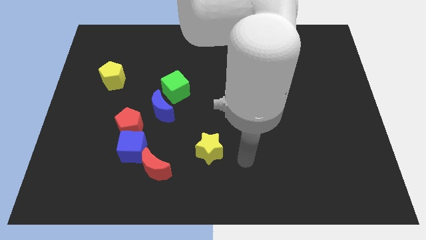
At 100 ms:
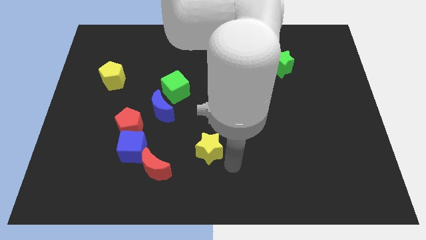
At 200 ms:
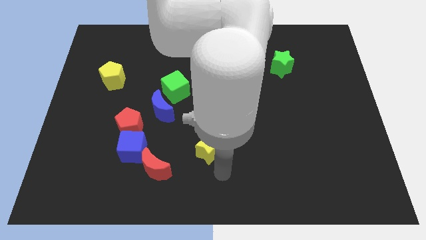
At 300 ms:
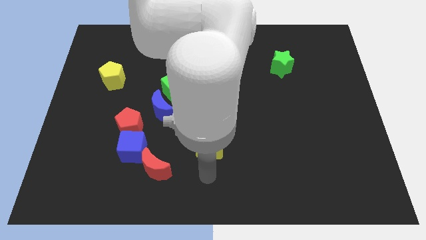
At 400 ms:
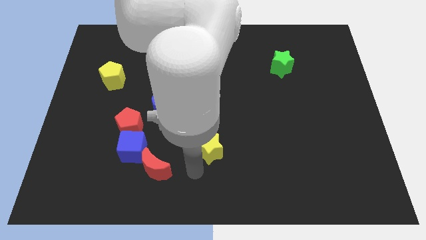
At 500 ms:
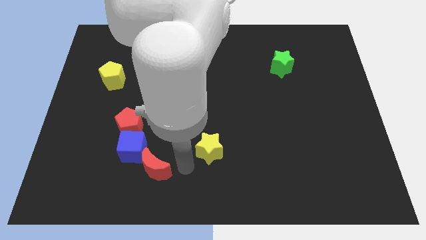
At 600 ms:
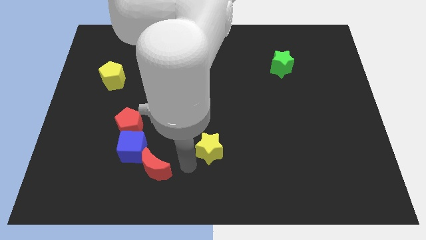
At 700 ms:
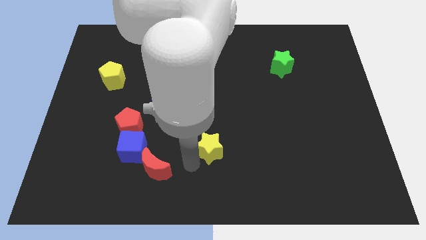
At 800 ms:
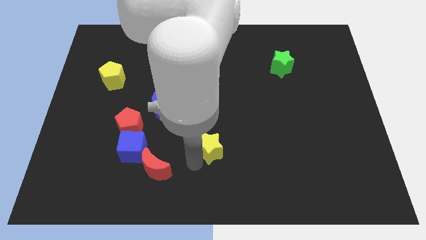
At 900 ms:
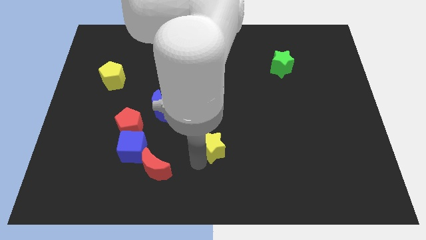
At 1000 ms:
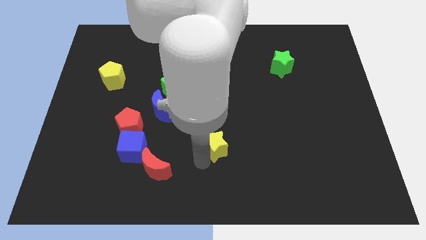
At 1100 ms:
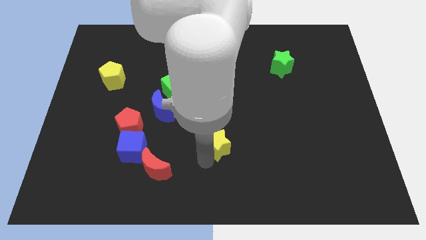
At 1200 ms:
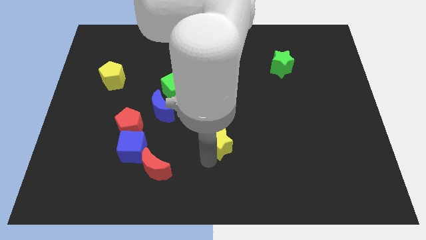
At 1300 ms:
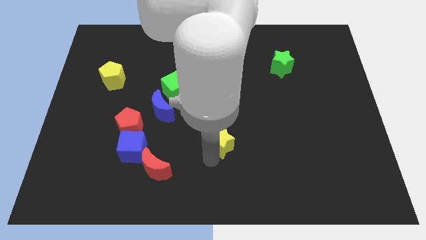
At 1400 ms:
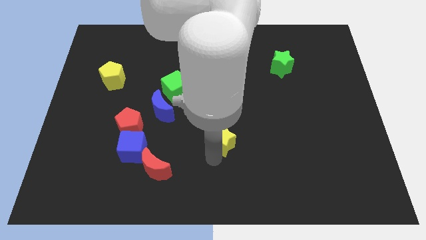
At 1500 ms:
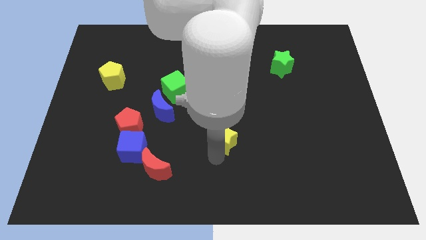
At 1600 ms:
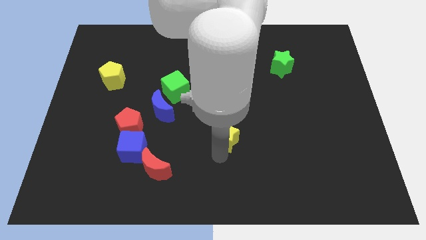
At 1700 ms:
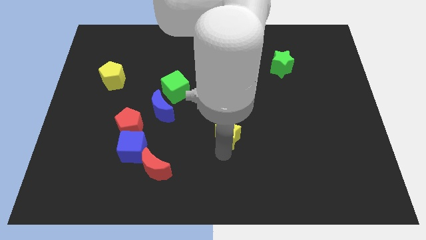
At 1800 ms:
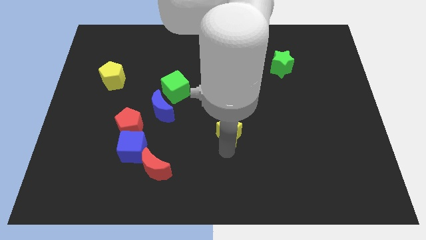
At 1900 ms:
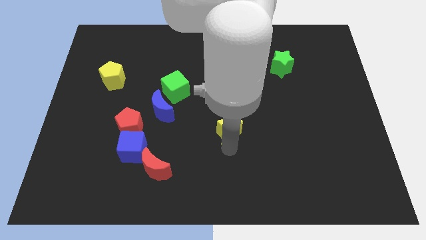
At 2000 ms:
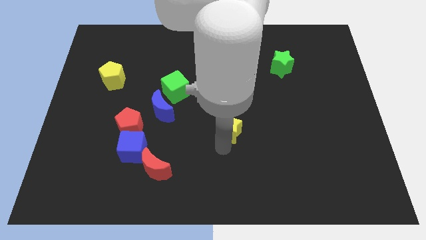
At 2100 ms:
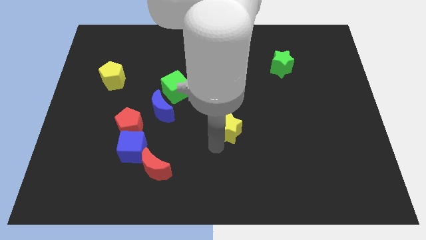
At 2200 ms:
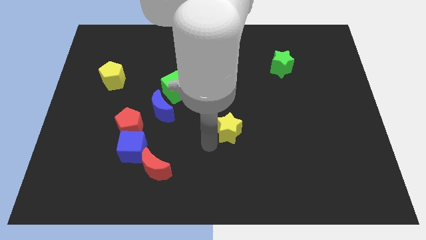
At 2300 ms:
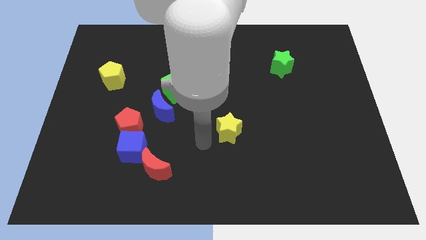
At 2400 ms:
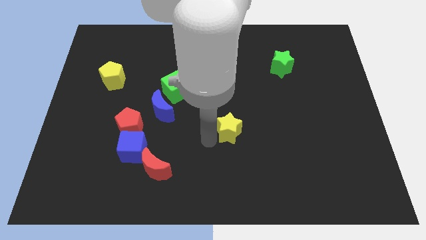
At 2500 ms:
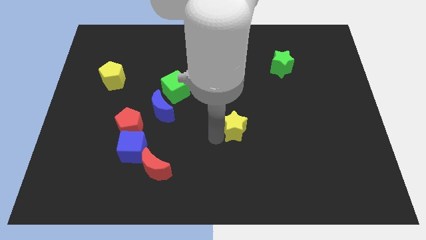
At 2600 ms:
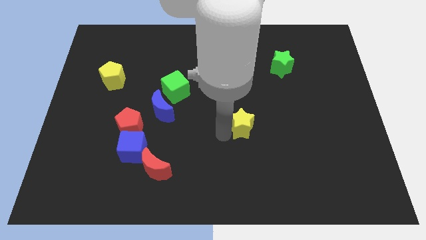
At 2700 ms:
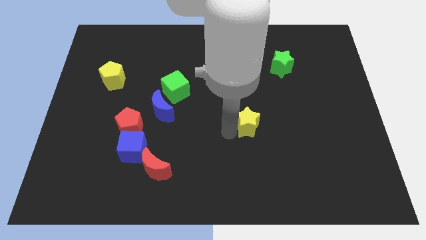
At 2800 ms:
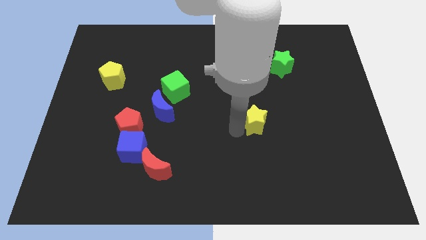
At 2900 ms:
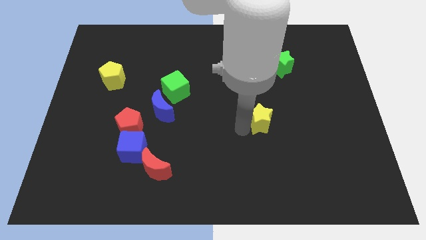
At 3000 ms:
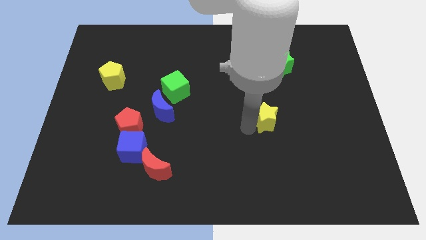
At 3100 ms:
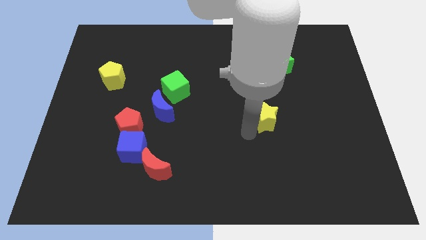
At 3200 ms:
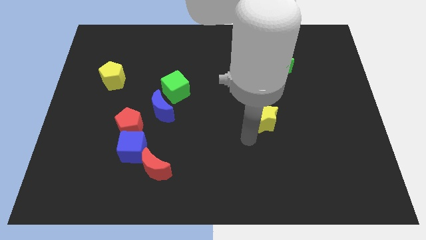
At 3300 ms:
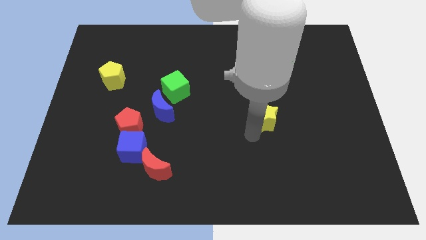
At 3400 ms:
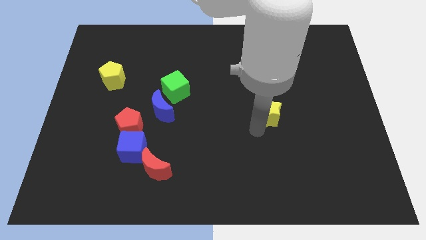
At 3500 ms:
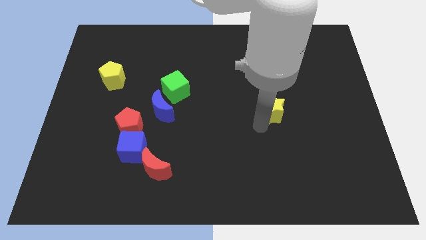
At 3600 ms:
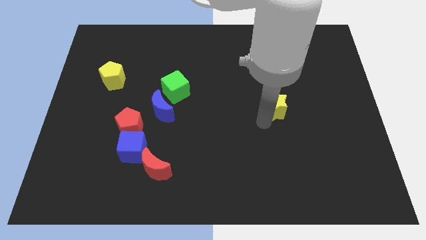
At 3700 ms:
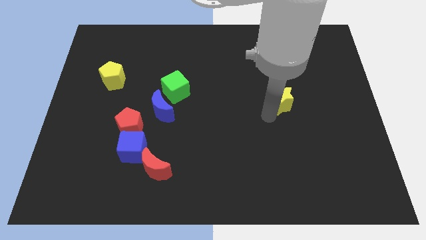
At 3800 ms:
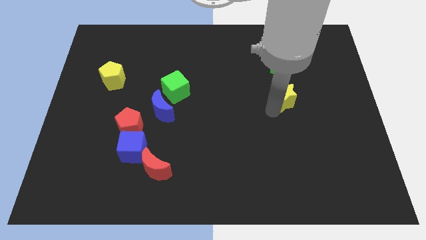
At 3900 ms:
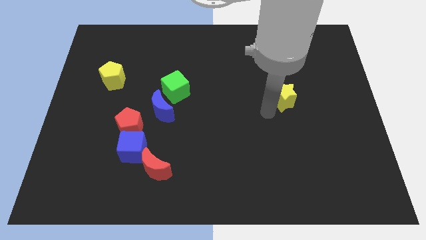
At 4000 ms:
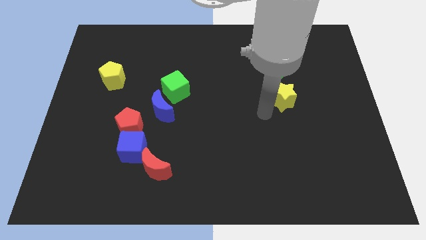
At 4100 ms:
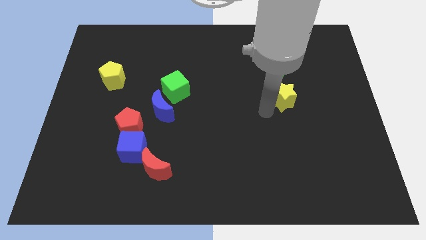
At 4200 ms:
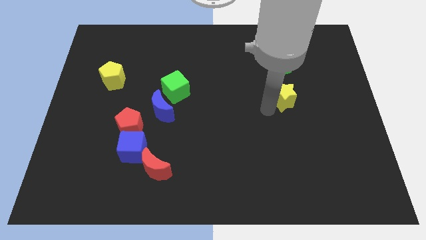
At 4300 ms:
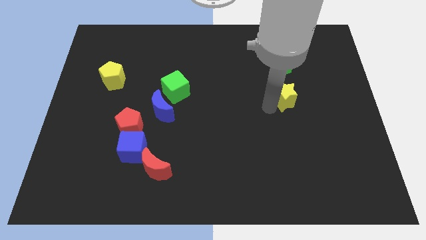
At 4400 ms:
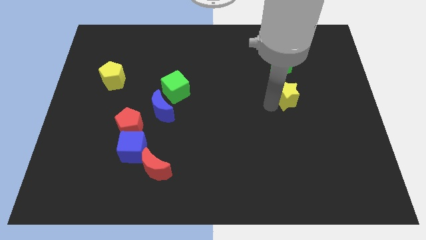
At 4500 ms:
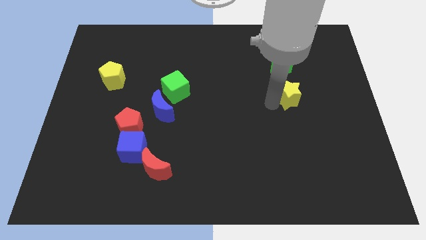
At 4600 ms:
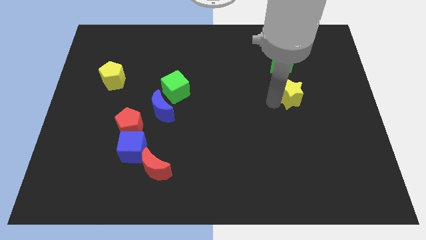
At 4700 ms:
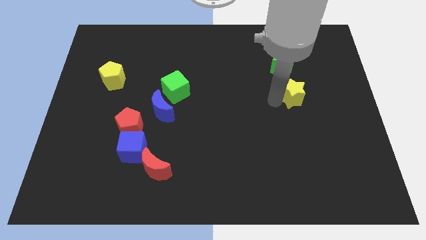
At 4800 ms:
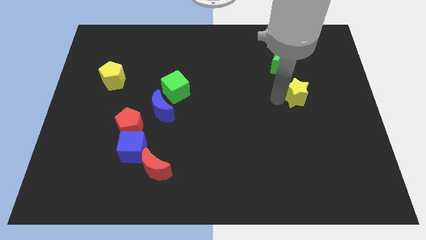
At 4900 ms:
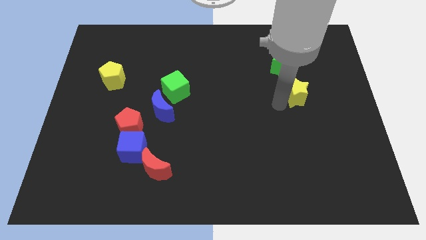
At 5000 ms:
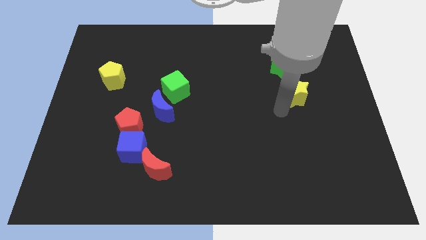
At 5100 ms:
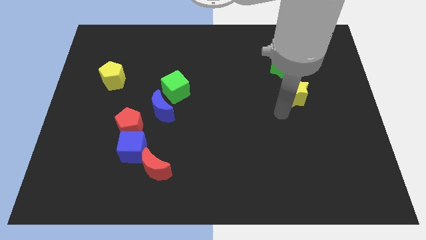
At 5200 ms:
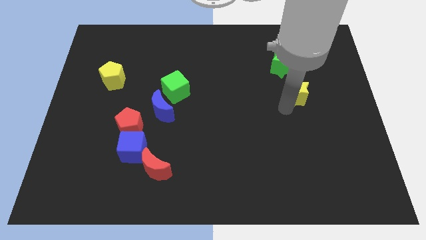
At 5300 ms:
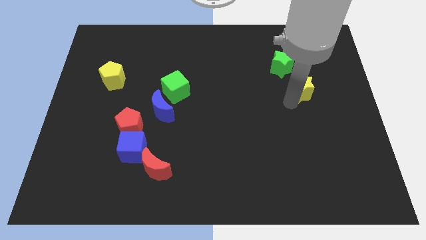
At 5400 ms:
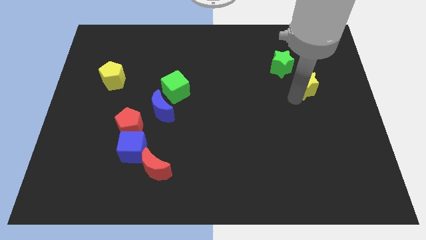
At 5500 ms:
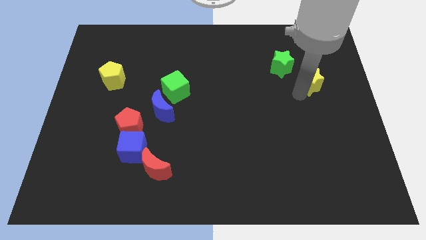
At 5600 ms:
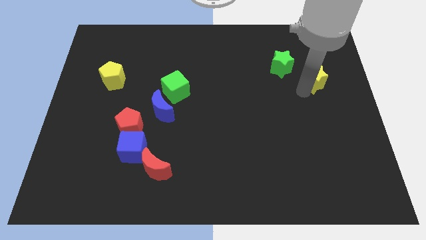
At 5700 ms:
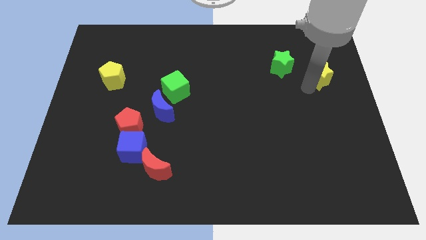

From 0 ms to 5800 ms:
put the yellow star to the right of the green star

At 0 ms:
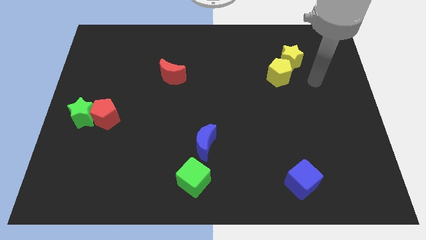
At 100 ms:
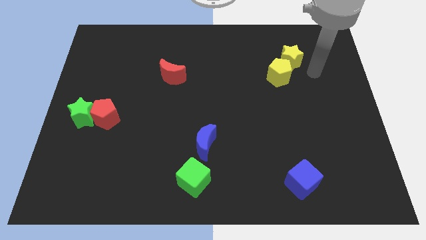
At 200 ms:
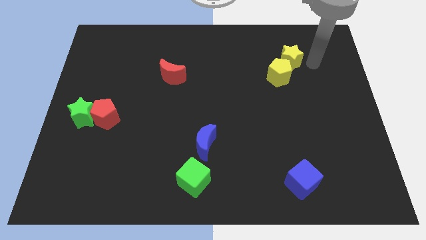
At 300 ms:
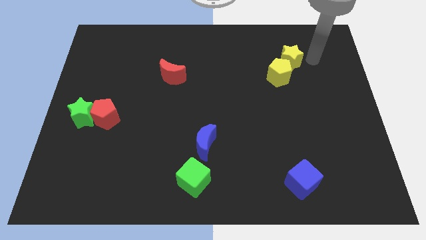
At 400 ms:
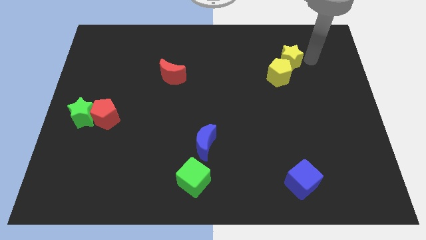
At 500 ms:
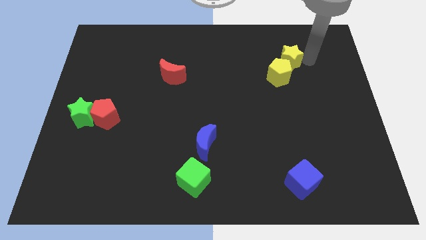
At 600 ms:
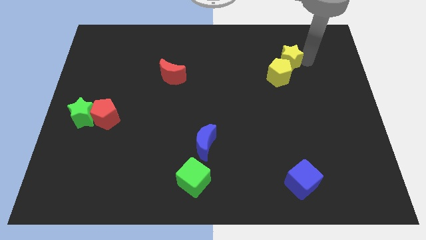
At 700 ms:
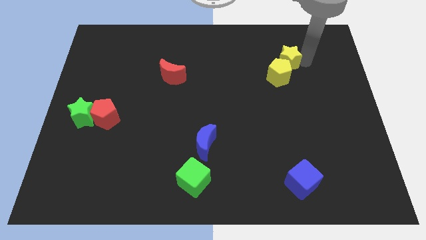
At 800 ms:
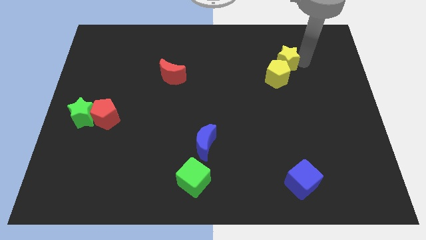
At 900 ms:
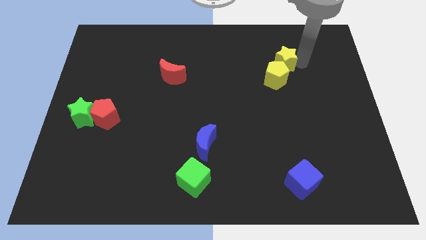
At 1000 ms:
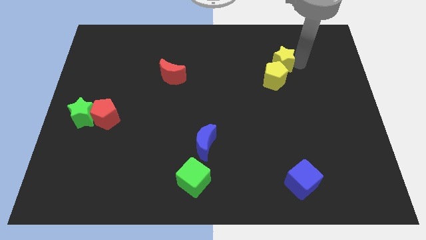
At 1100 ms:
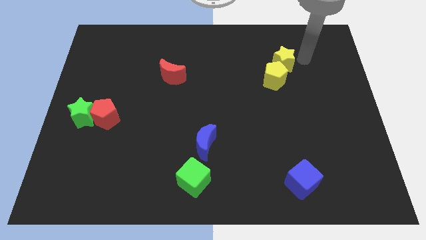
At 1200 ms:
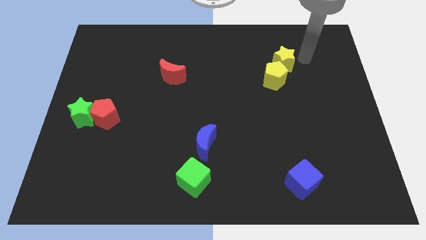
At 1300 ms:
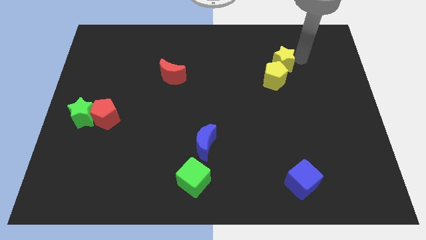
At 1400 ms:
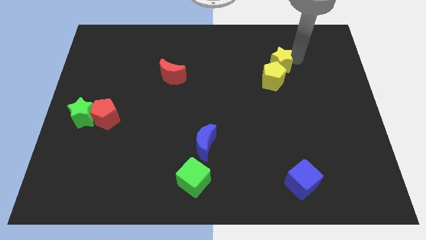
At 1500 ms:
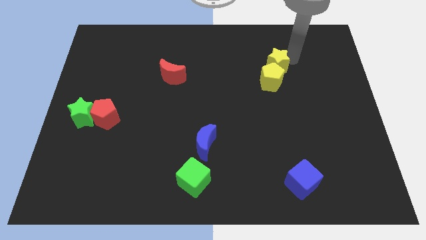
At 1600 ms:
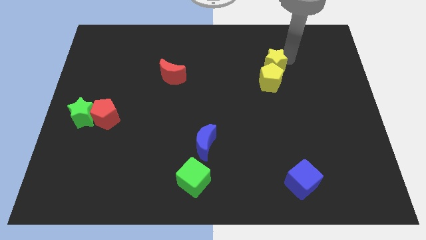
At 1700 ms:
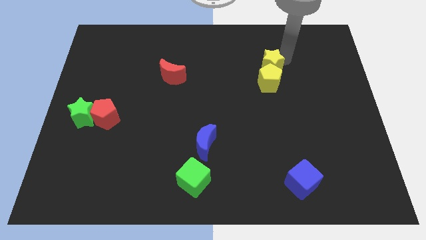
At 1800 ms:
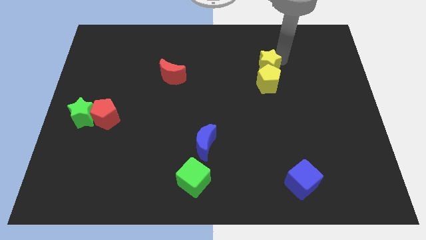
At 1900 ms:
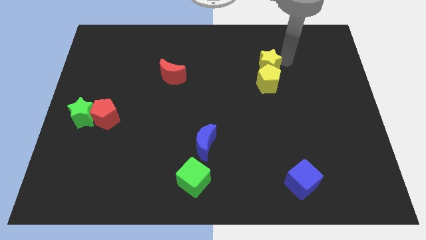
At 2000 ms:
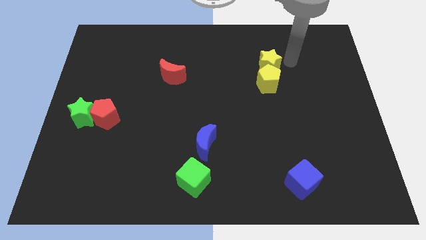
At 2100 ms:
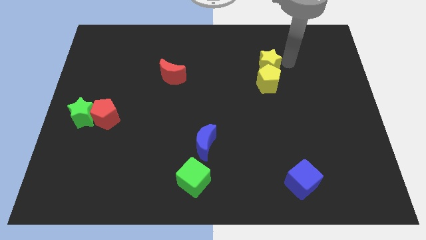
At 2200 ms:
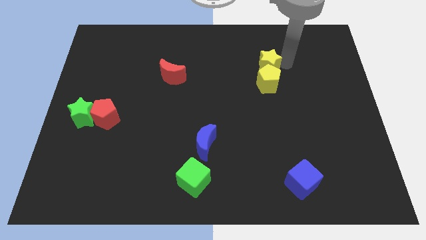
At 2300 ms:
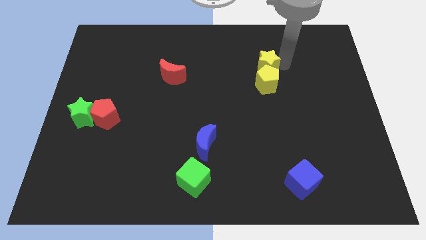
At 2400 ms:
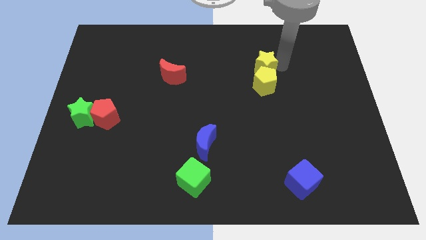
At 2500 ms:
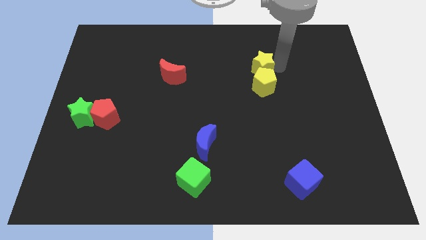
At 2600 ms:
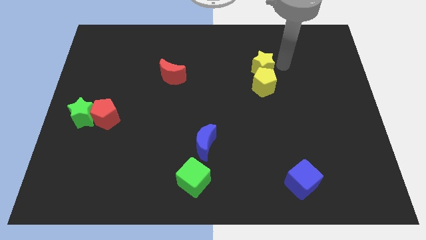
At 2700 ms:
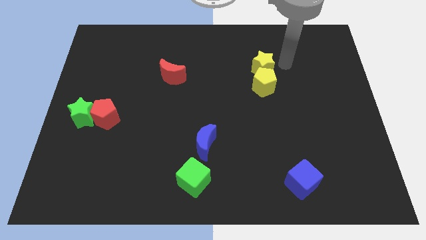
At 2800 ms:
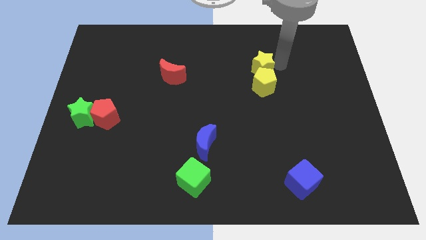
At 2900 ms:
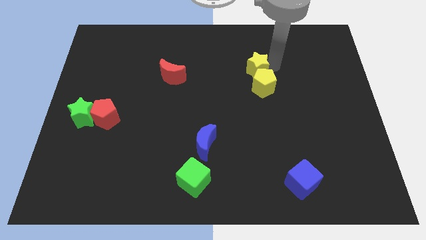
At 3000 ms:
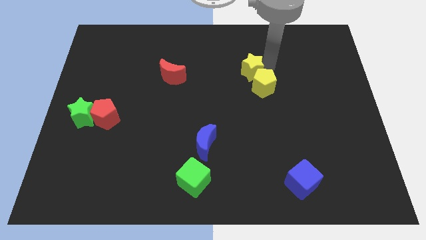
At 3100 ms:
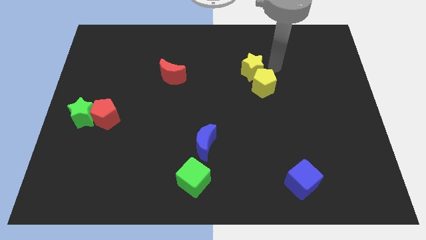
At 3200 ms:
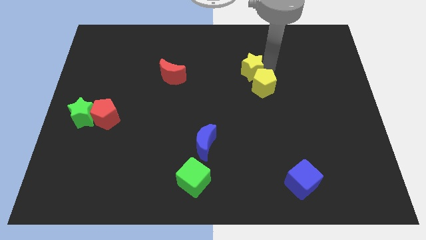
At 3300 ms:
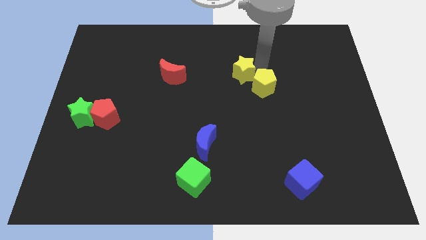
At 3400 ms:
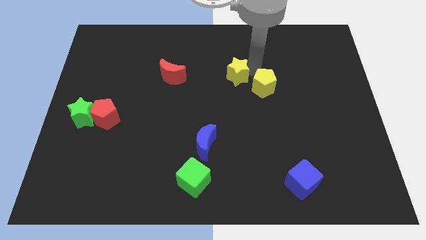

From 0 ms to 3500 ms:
put the yellow star right of the red moon
